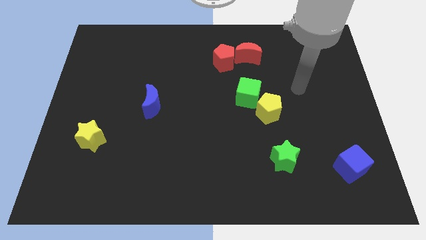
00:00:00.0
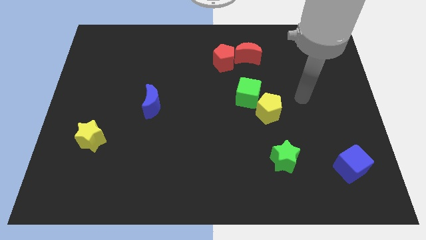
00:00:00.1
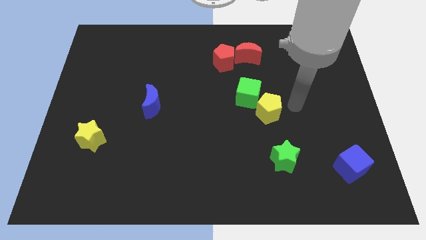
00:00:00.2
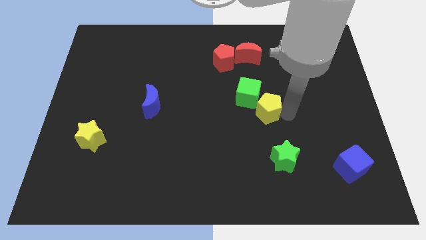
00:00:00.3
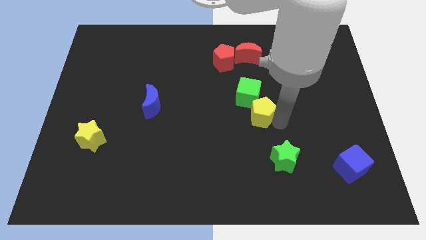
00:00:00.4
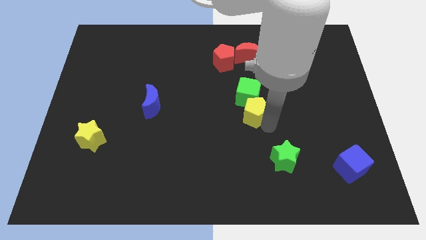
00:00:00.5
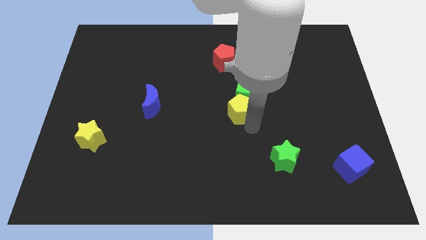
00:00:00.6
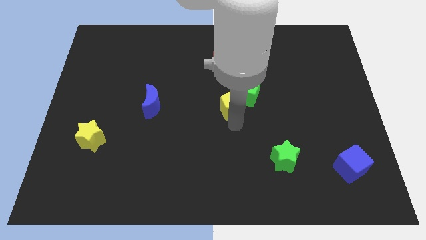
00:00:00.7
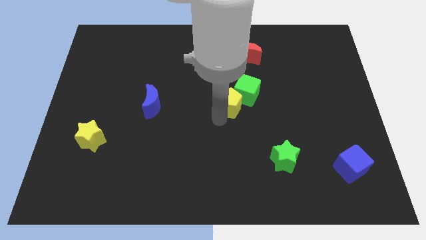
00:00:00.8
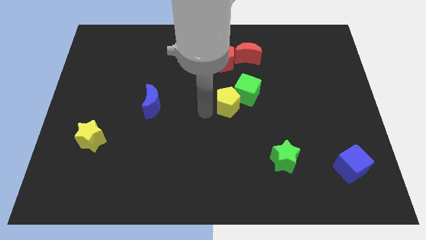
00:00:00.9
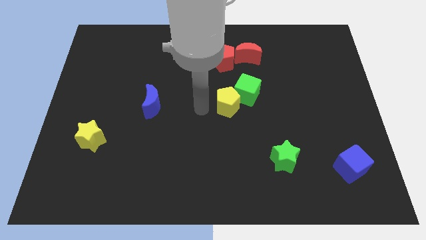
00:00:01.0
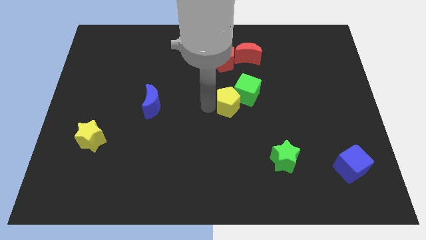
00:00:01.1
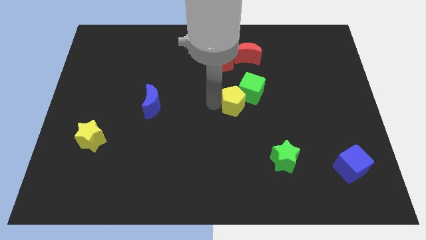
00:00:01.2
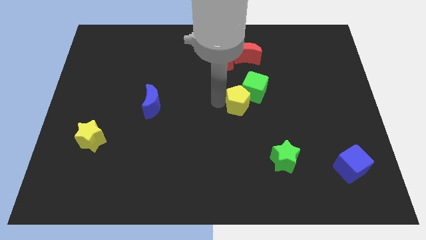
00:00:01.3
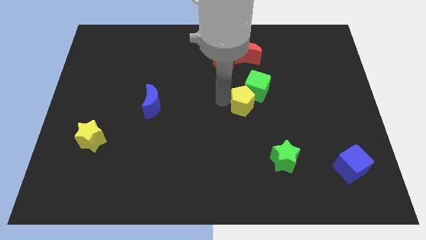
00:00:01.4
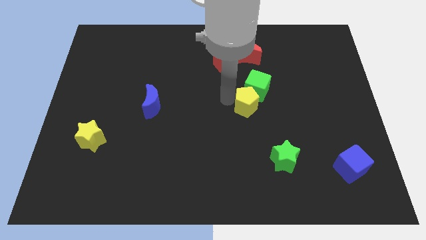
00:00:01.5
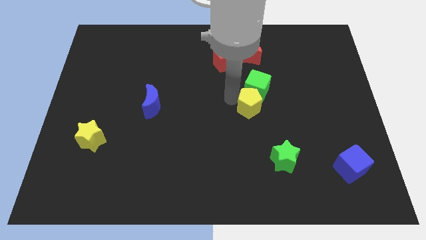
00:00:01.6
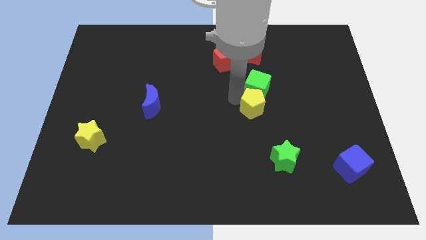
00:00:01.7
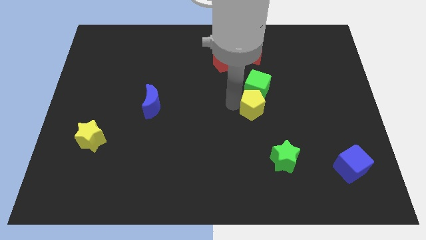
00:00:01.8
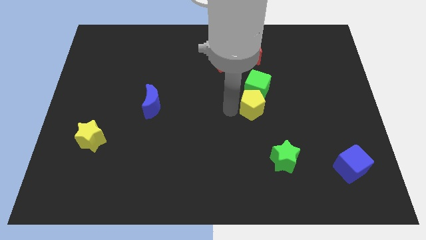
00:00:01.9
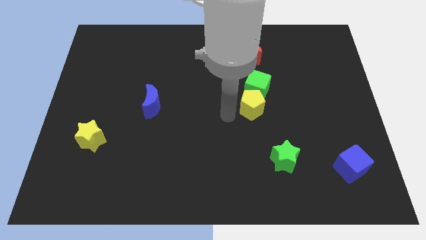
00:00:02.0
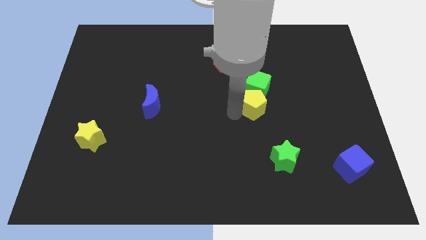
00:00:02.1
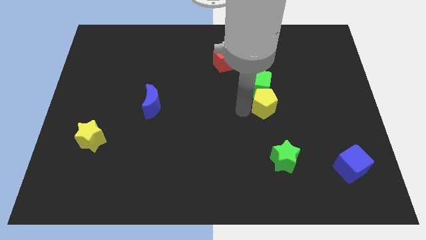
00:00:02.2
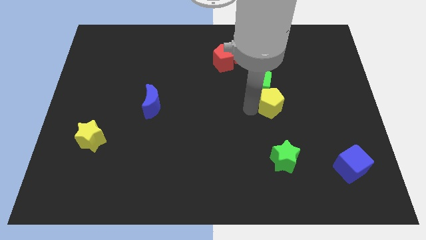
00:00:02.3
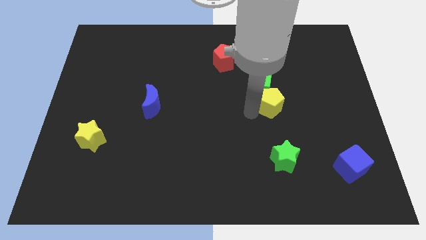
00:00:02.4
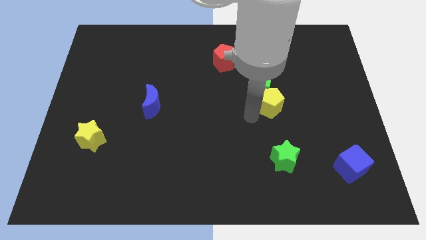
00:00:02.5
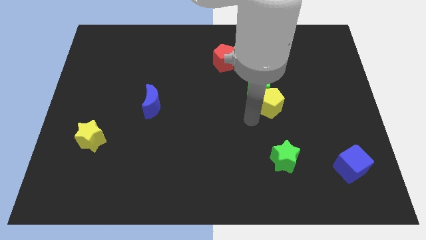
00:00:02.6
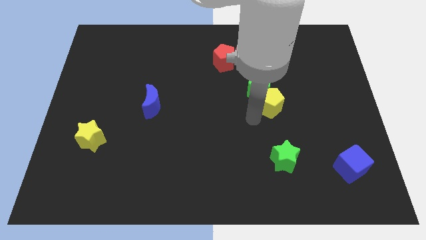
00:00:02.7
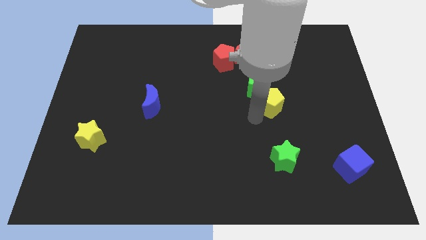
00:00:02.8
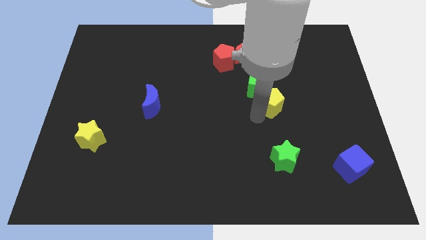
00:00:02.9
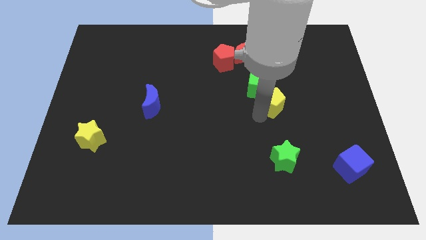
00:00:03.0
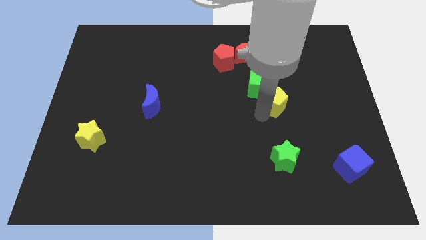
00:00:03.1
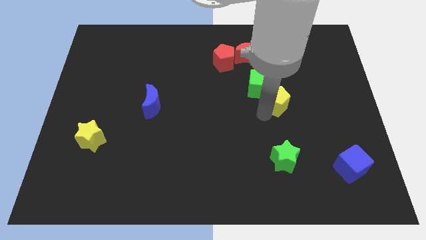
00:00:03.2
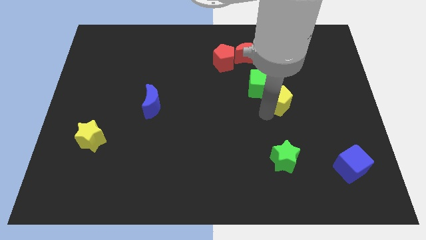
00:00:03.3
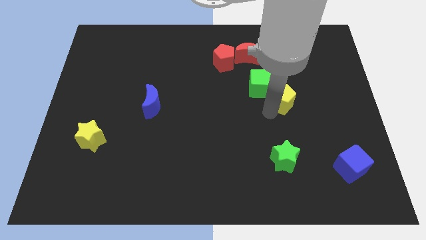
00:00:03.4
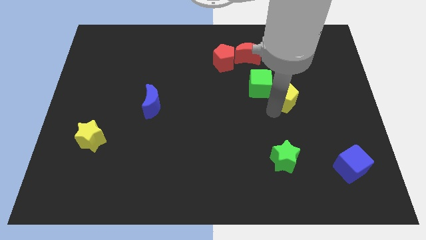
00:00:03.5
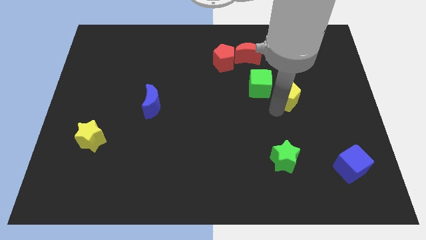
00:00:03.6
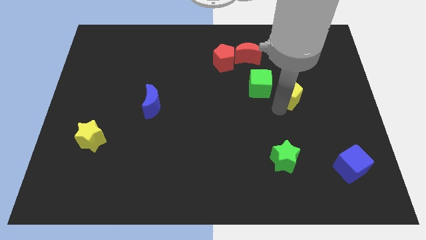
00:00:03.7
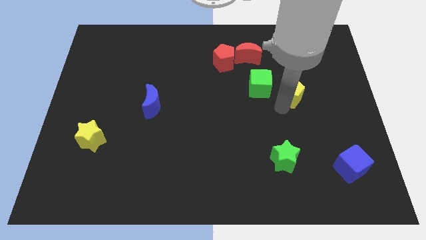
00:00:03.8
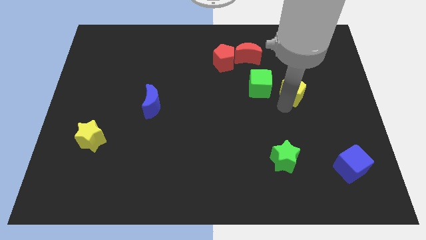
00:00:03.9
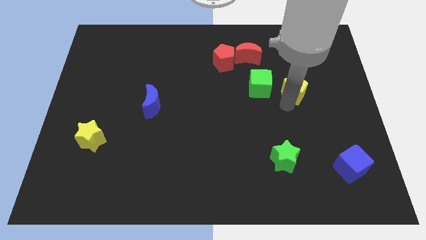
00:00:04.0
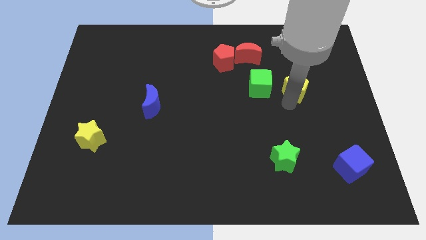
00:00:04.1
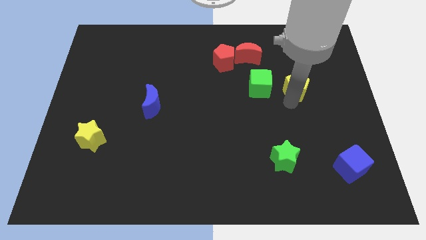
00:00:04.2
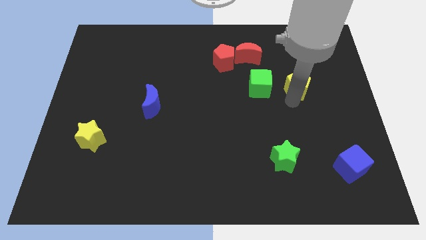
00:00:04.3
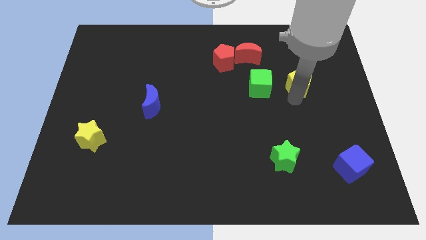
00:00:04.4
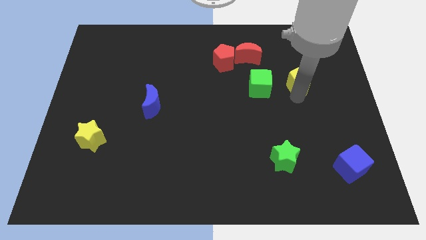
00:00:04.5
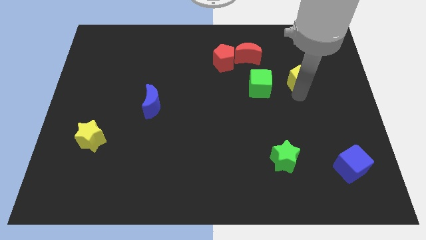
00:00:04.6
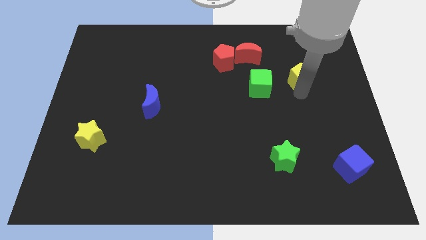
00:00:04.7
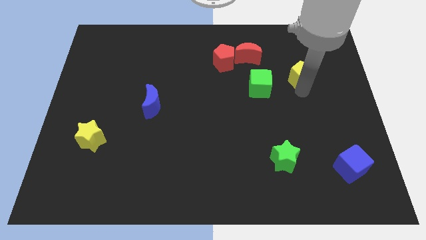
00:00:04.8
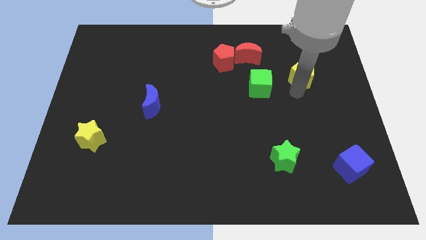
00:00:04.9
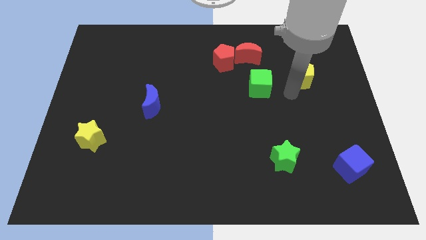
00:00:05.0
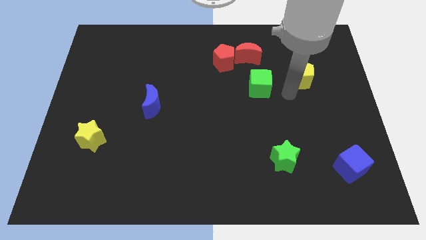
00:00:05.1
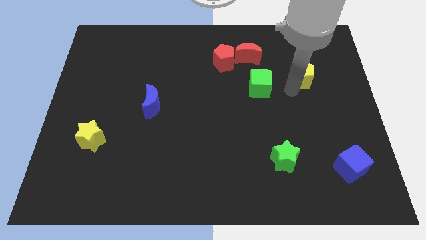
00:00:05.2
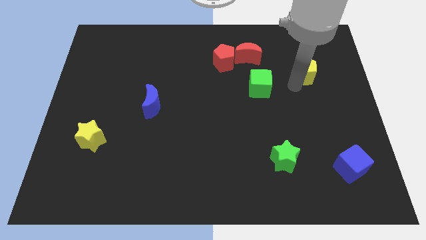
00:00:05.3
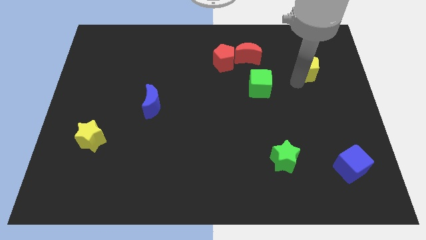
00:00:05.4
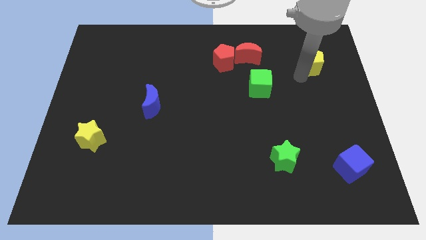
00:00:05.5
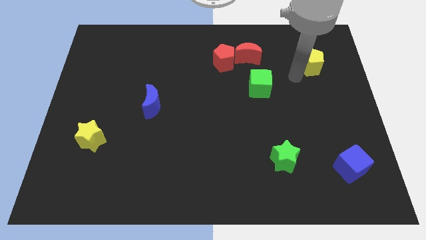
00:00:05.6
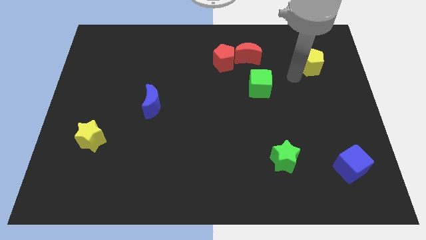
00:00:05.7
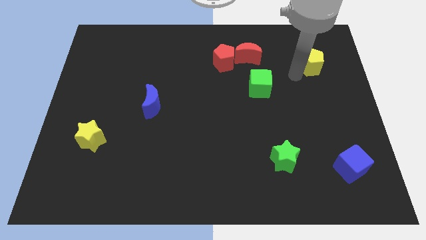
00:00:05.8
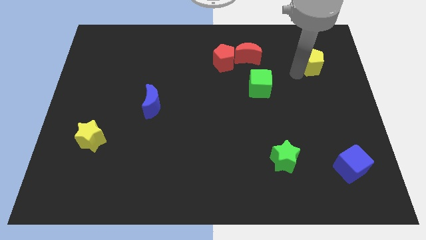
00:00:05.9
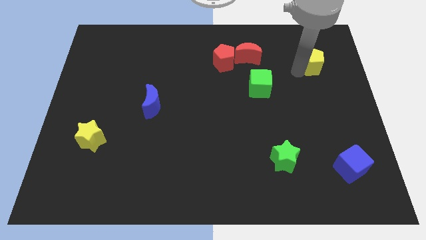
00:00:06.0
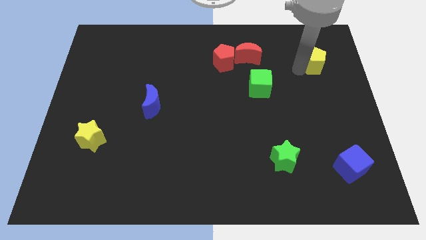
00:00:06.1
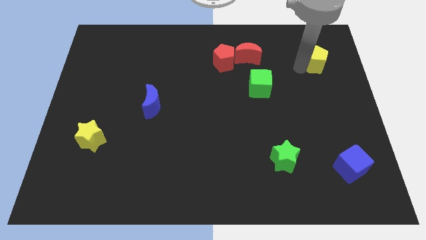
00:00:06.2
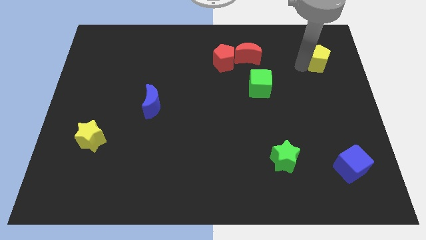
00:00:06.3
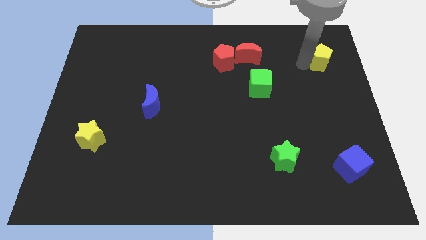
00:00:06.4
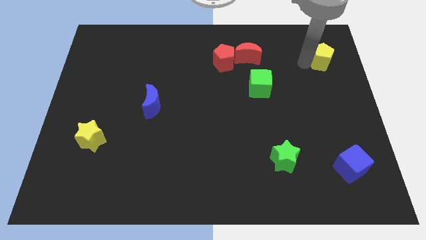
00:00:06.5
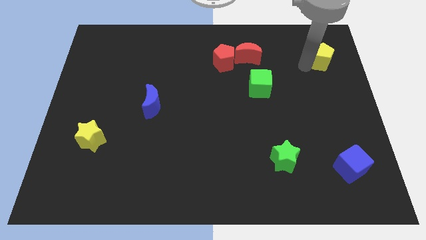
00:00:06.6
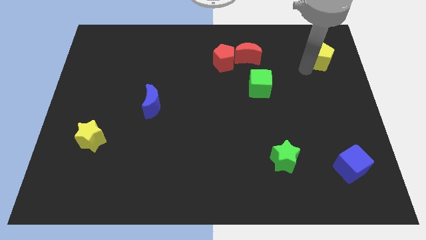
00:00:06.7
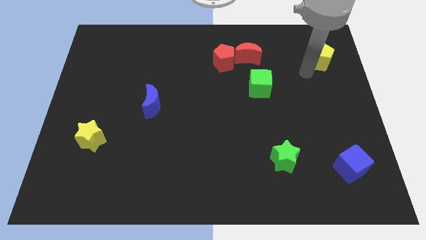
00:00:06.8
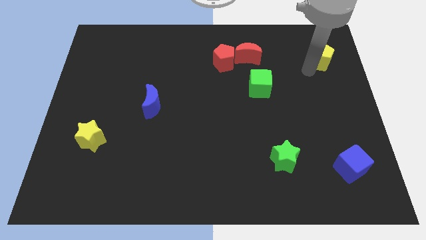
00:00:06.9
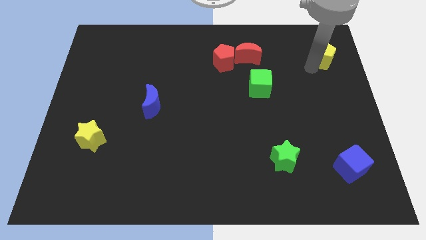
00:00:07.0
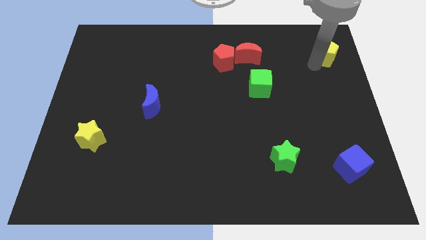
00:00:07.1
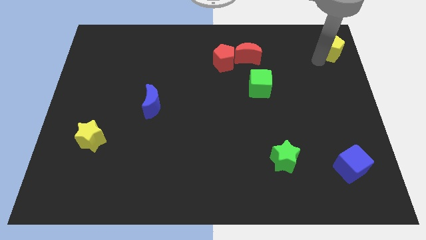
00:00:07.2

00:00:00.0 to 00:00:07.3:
put the yellow pentagon to the top right of the board
